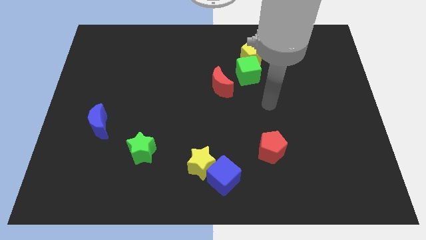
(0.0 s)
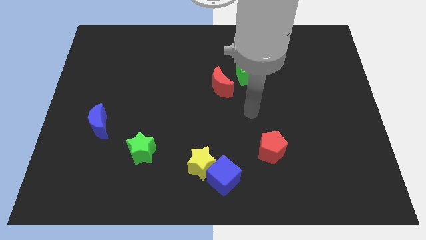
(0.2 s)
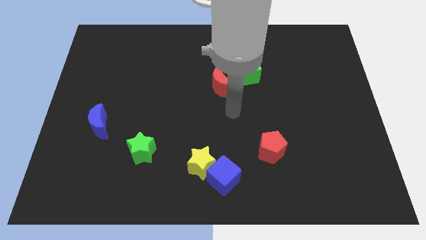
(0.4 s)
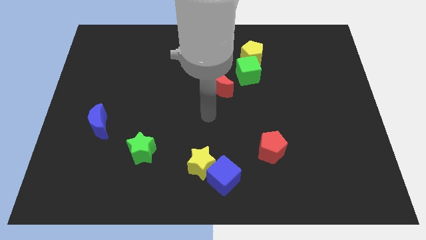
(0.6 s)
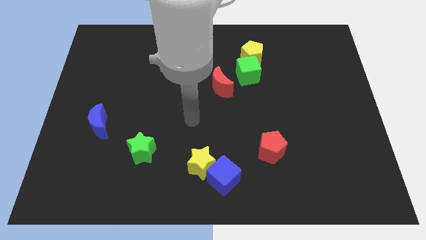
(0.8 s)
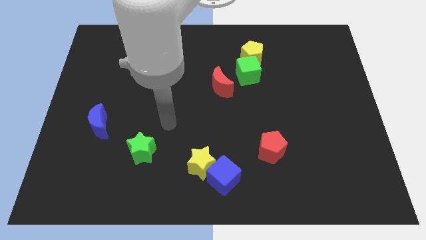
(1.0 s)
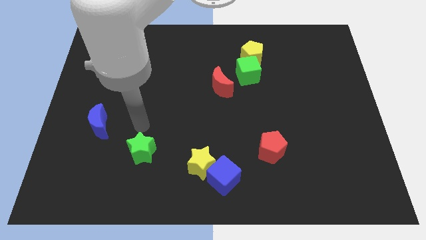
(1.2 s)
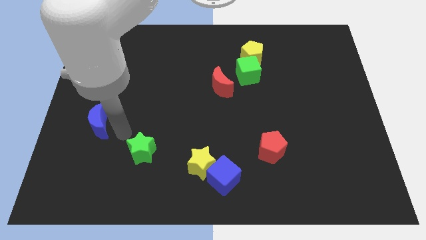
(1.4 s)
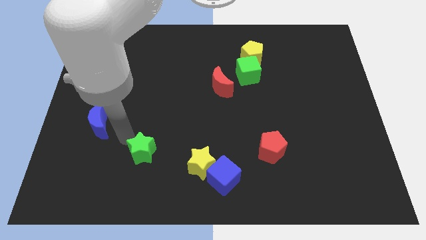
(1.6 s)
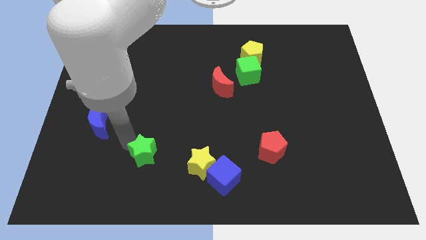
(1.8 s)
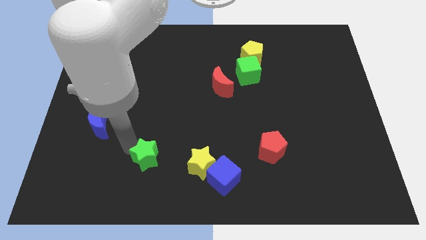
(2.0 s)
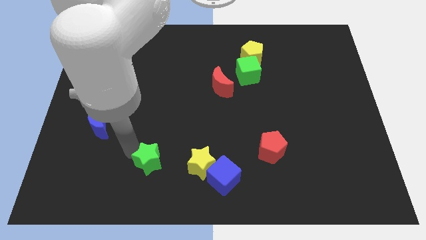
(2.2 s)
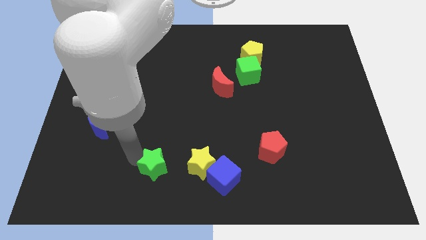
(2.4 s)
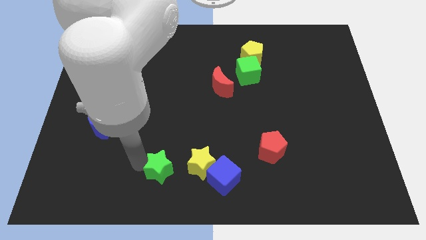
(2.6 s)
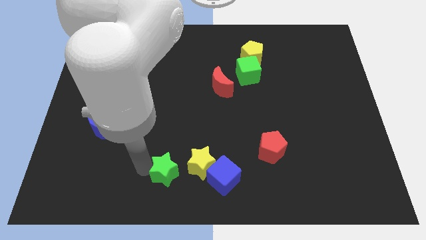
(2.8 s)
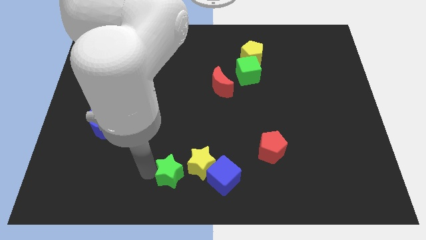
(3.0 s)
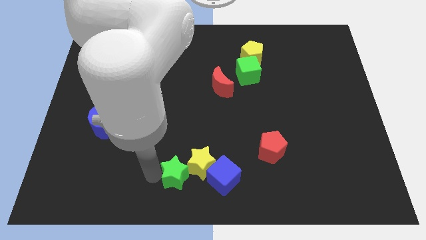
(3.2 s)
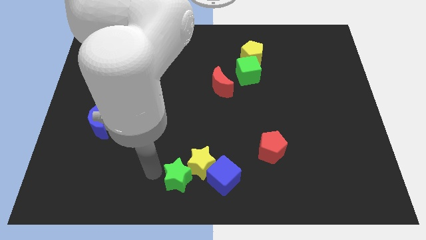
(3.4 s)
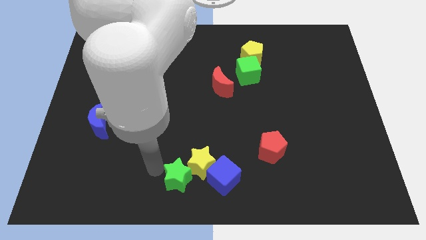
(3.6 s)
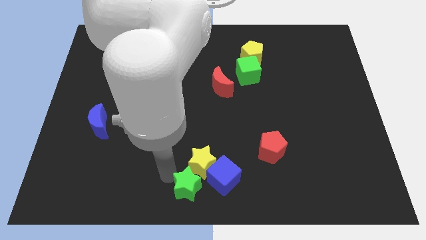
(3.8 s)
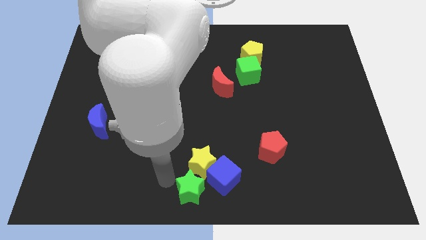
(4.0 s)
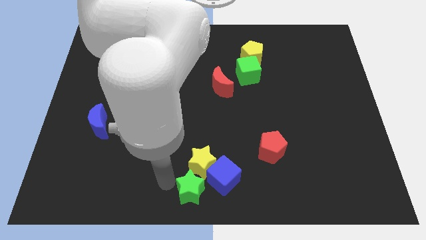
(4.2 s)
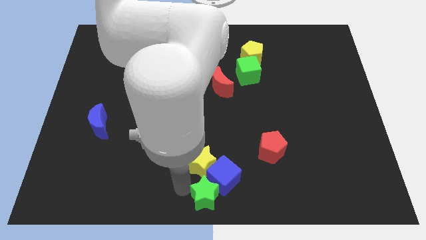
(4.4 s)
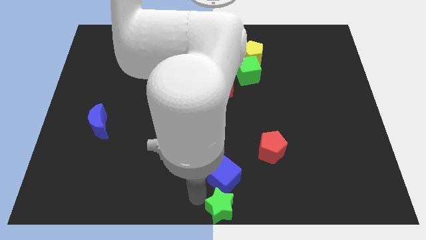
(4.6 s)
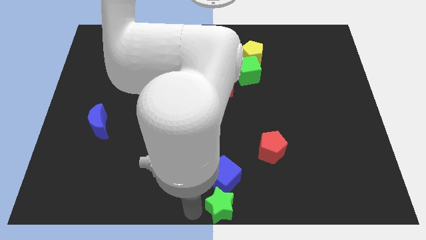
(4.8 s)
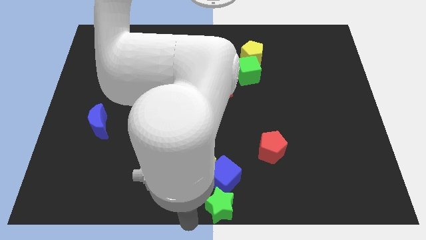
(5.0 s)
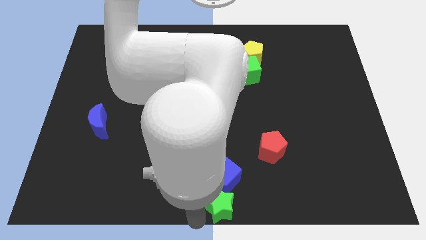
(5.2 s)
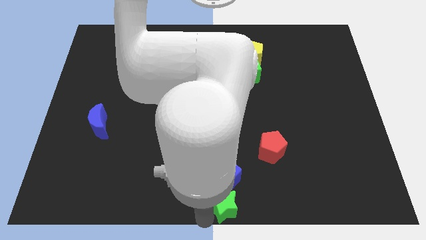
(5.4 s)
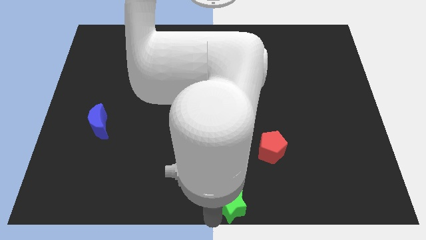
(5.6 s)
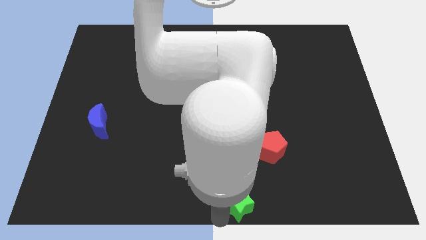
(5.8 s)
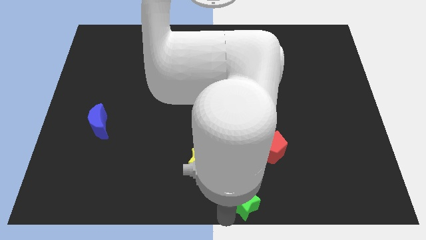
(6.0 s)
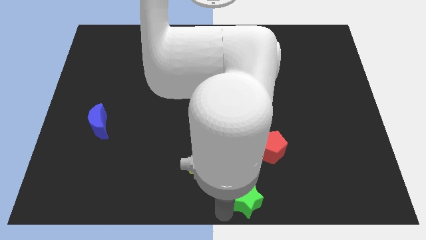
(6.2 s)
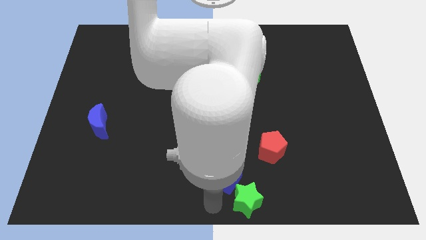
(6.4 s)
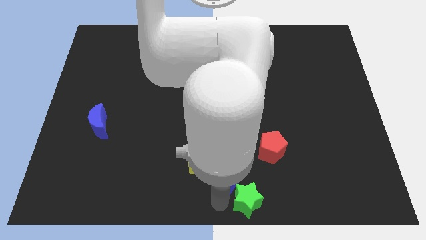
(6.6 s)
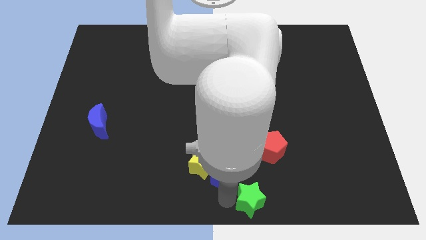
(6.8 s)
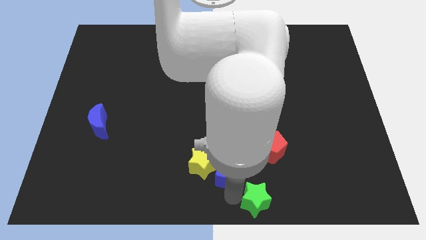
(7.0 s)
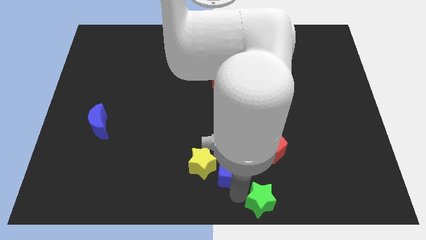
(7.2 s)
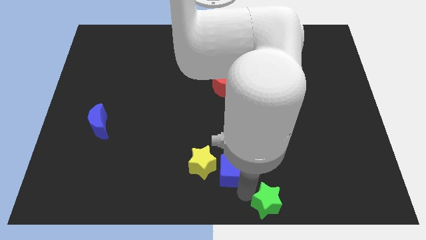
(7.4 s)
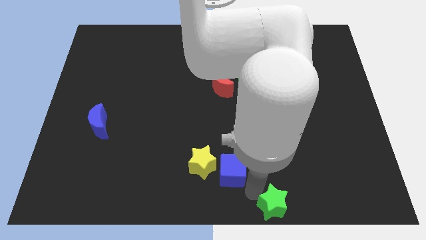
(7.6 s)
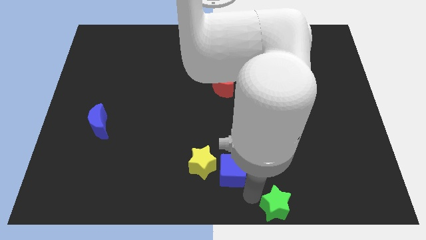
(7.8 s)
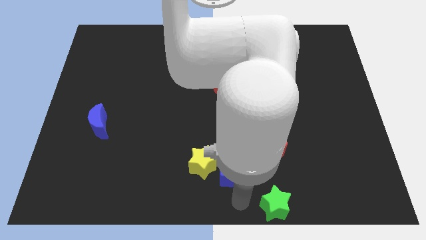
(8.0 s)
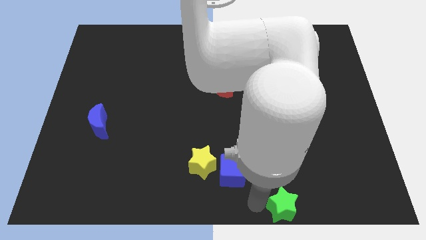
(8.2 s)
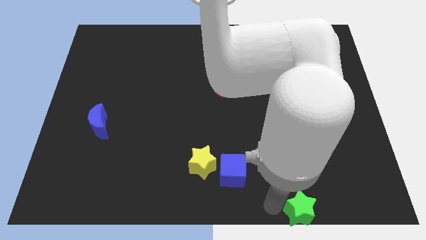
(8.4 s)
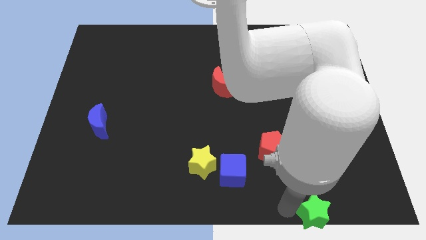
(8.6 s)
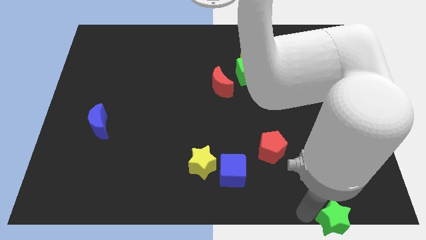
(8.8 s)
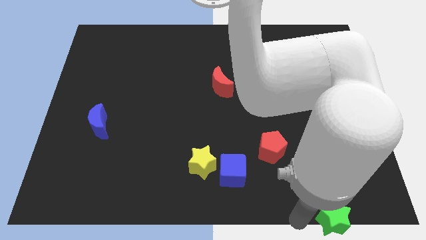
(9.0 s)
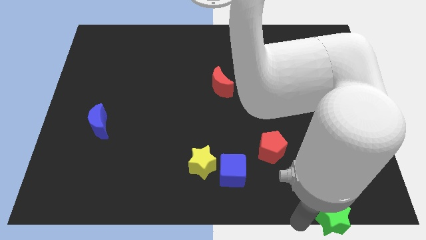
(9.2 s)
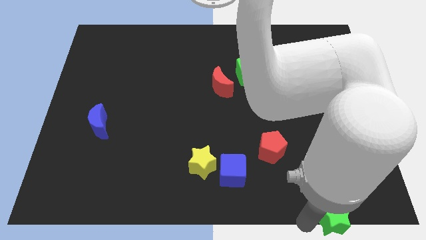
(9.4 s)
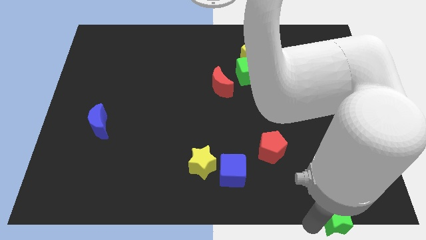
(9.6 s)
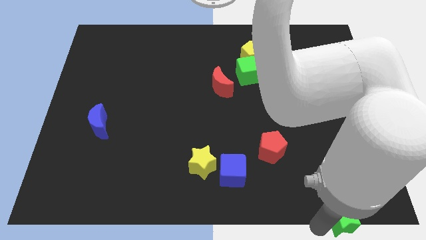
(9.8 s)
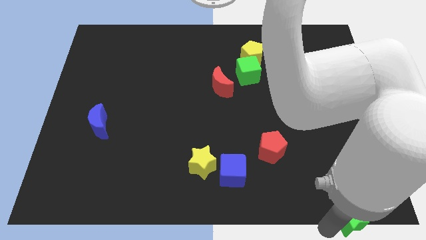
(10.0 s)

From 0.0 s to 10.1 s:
put the green star to the bottom right

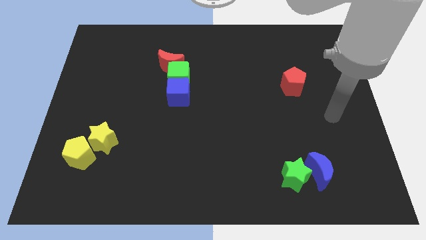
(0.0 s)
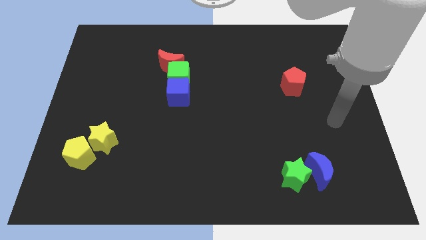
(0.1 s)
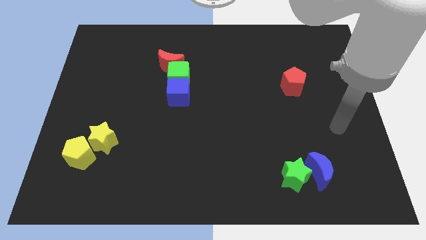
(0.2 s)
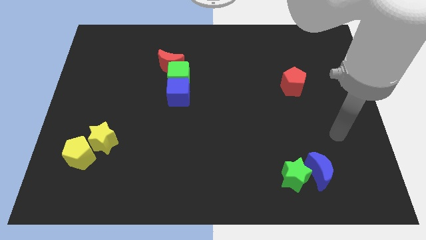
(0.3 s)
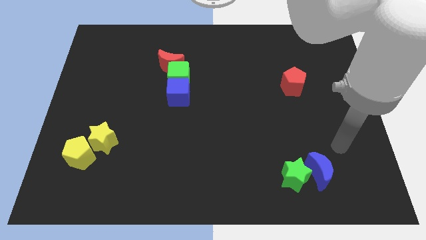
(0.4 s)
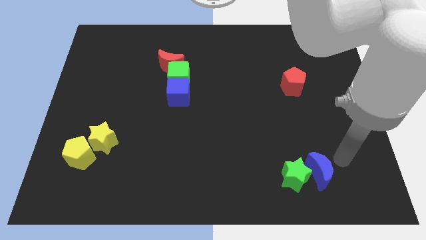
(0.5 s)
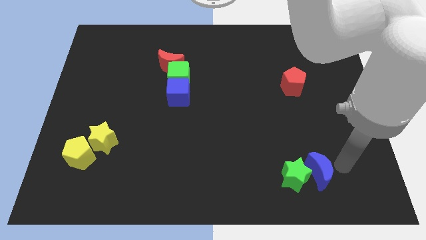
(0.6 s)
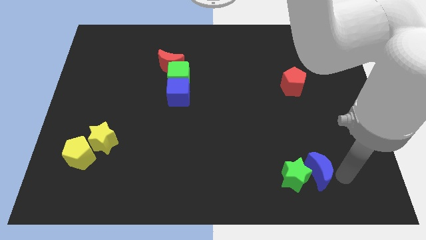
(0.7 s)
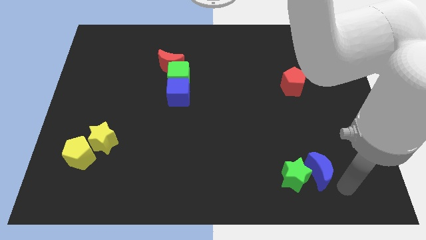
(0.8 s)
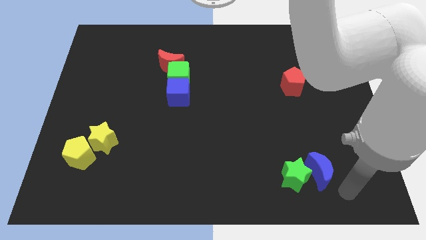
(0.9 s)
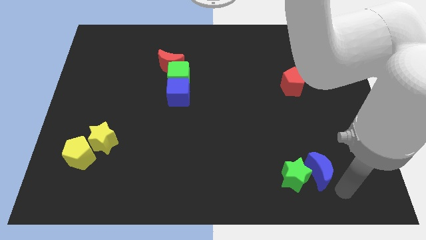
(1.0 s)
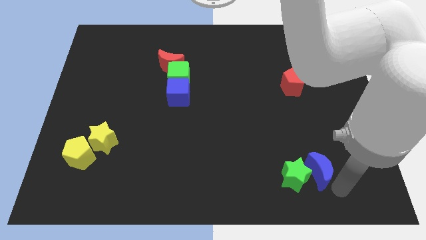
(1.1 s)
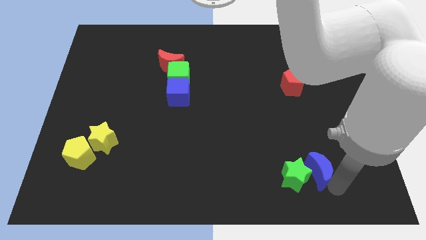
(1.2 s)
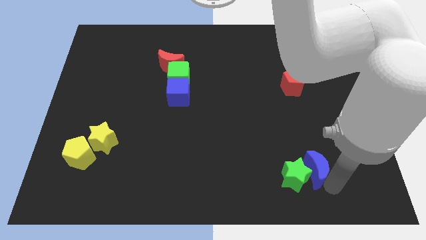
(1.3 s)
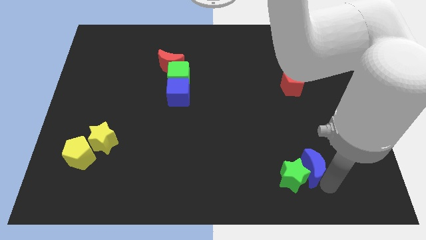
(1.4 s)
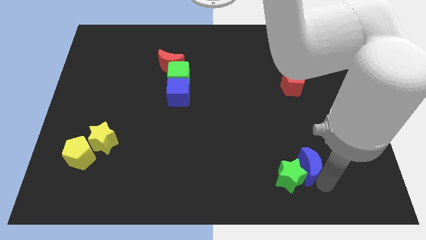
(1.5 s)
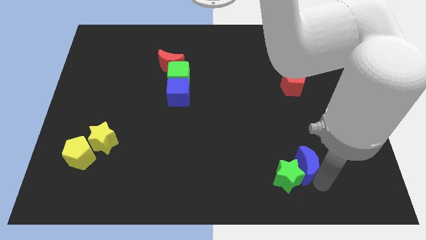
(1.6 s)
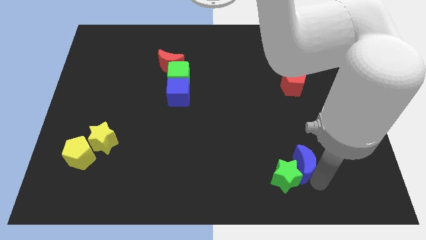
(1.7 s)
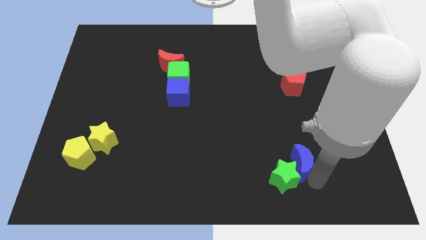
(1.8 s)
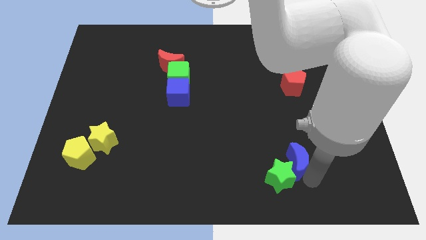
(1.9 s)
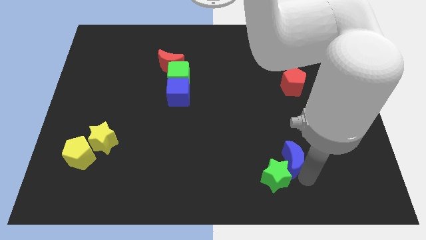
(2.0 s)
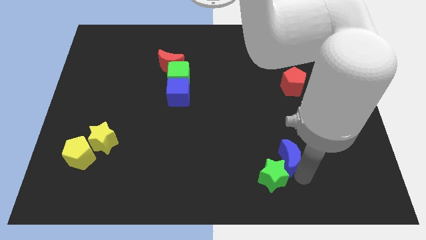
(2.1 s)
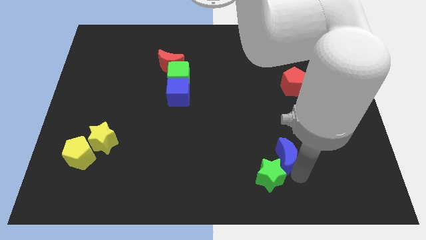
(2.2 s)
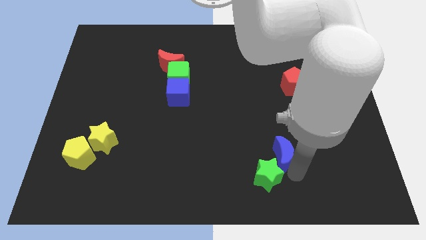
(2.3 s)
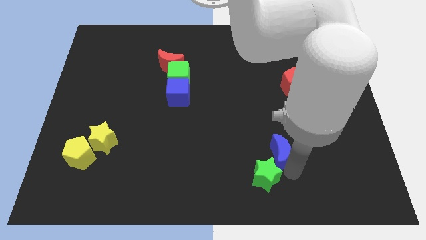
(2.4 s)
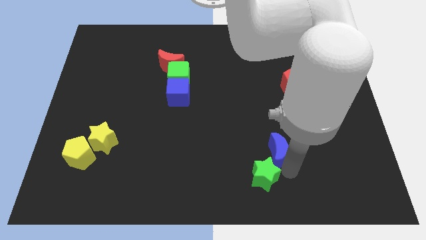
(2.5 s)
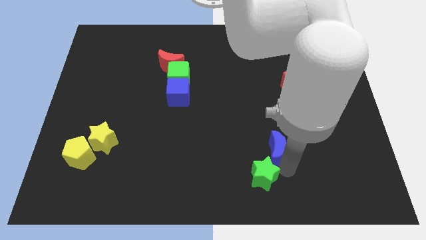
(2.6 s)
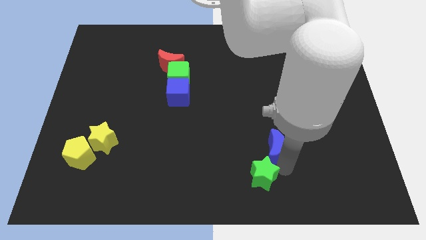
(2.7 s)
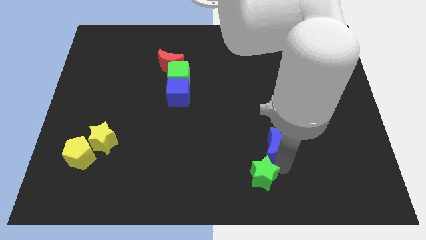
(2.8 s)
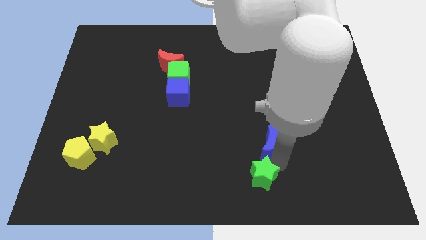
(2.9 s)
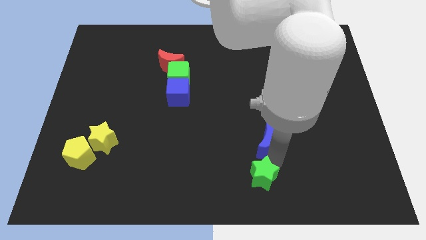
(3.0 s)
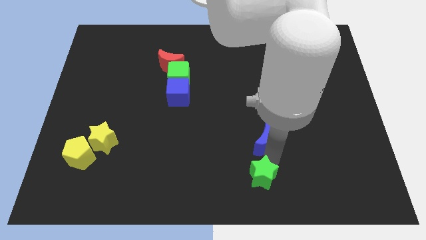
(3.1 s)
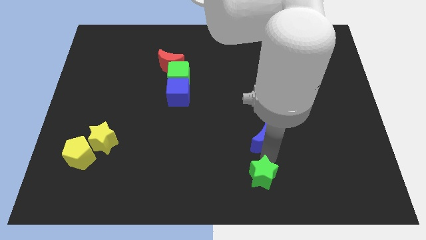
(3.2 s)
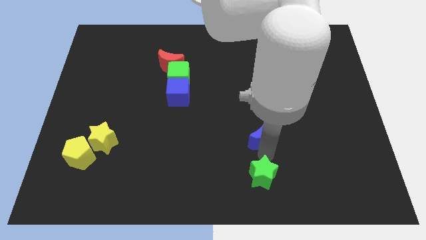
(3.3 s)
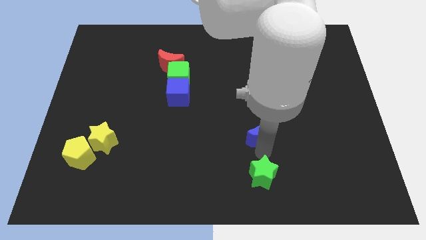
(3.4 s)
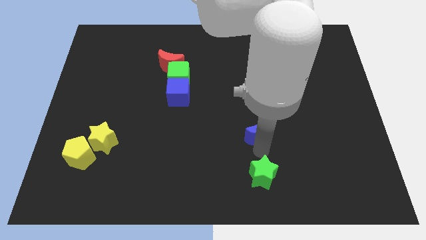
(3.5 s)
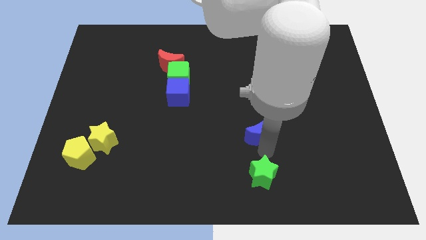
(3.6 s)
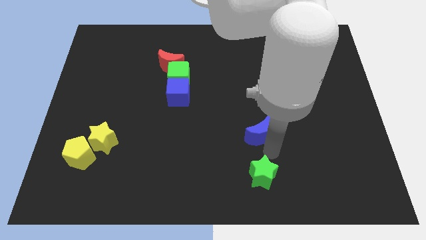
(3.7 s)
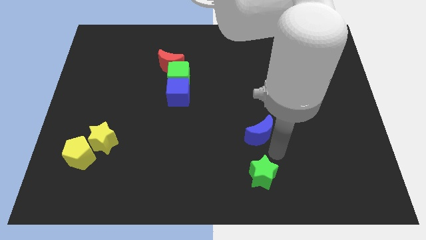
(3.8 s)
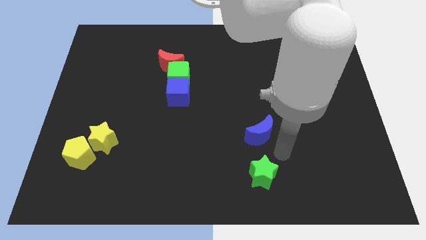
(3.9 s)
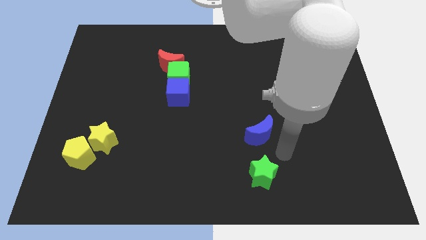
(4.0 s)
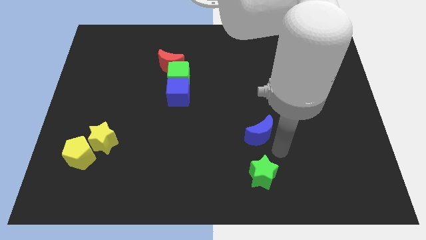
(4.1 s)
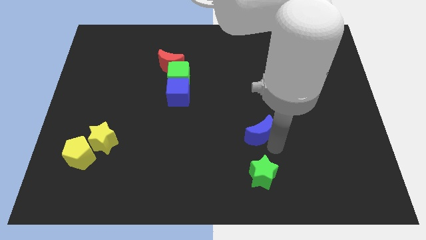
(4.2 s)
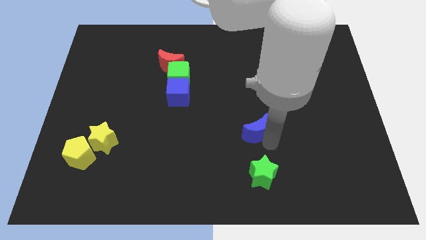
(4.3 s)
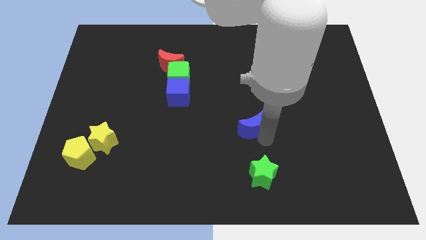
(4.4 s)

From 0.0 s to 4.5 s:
push the blue moon to the middle of the board
